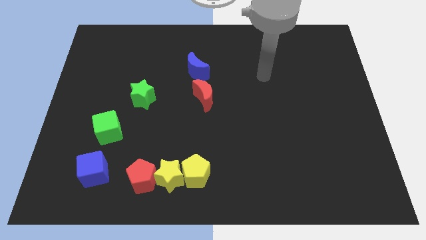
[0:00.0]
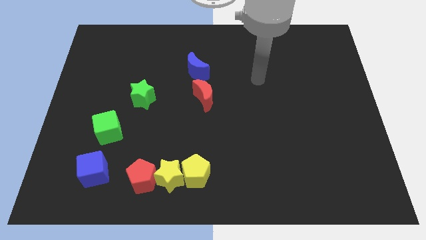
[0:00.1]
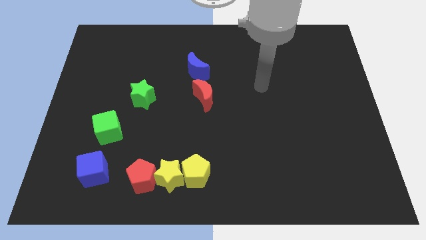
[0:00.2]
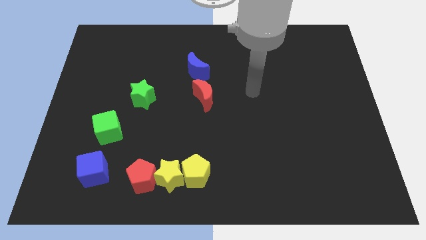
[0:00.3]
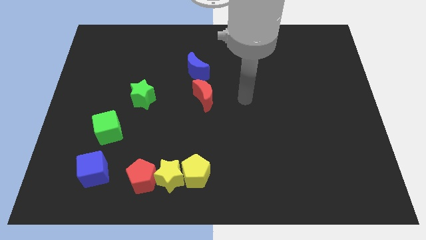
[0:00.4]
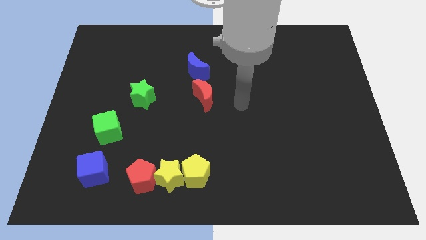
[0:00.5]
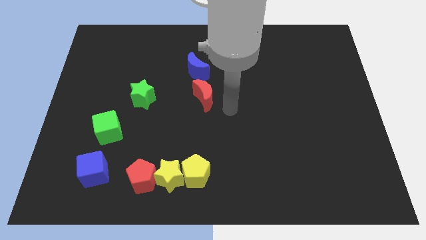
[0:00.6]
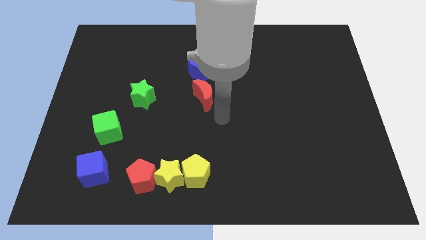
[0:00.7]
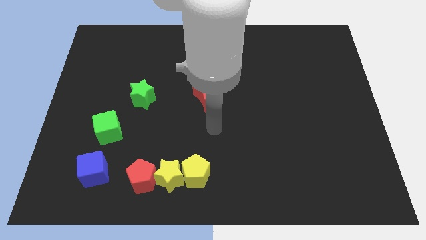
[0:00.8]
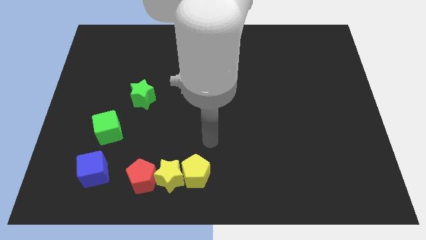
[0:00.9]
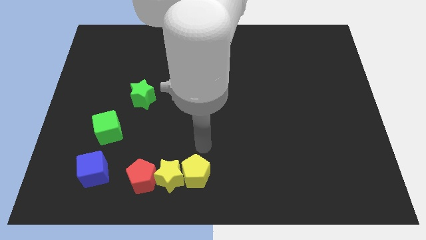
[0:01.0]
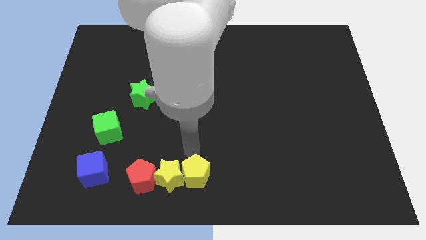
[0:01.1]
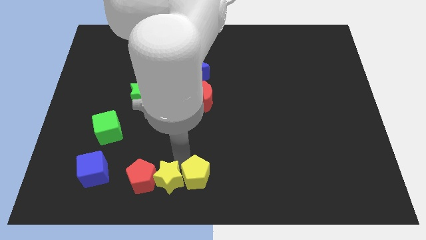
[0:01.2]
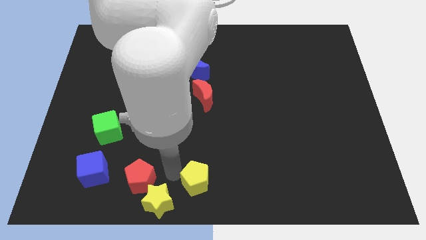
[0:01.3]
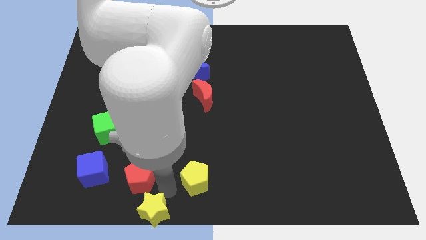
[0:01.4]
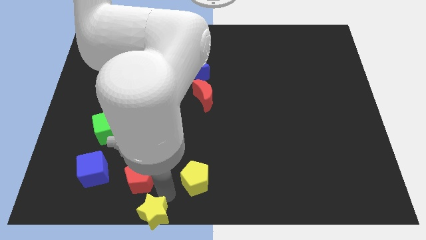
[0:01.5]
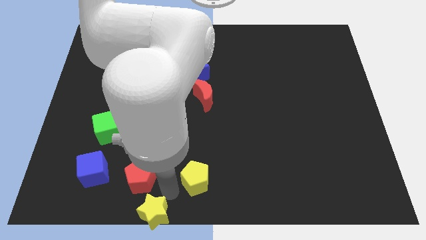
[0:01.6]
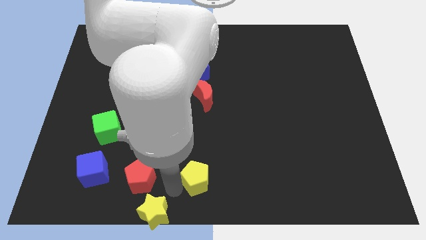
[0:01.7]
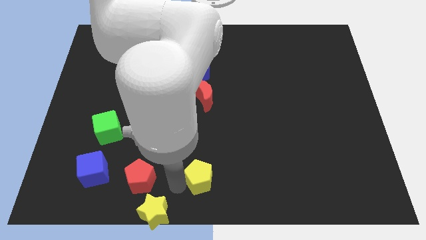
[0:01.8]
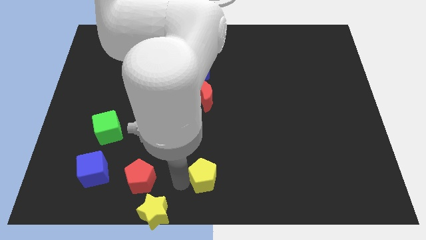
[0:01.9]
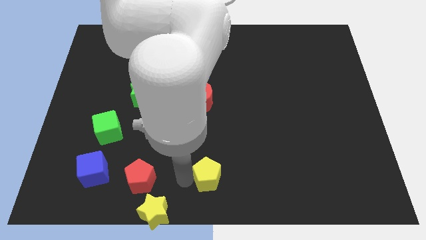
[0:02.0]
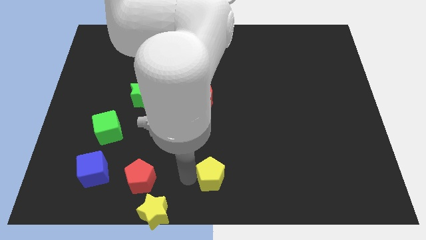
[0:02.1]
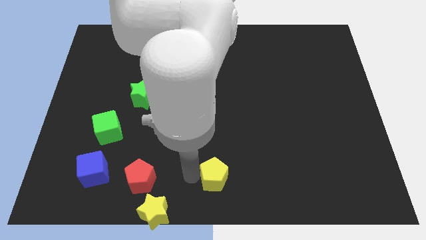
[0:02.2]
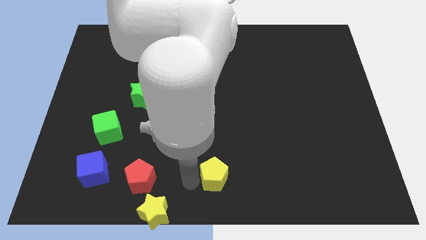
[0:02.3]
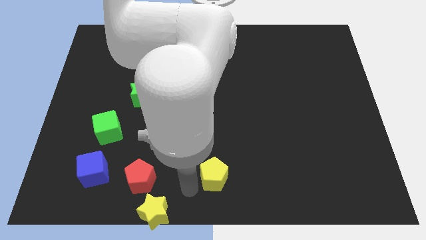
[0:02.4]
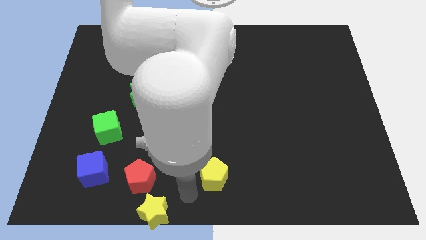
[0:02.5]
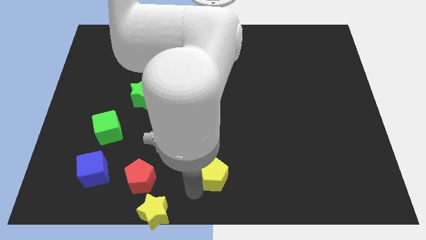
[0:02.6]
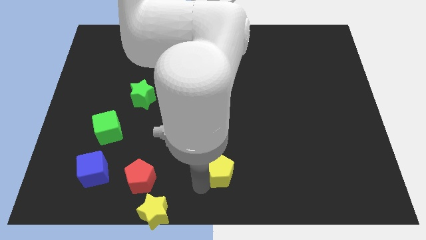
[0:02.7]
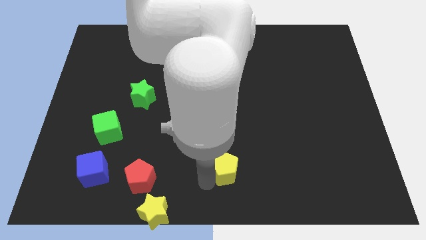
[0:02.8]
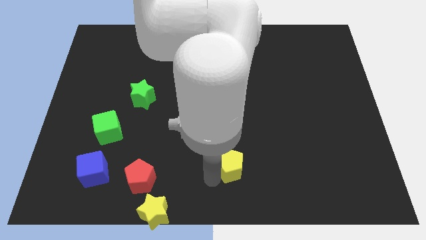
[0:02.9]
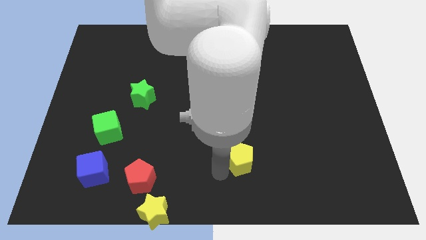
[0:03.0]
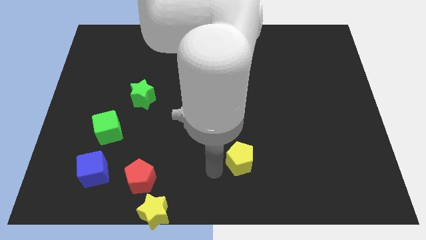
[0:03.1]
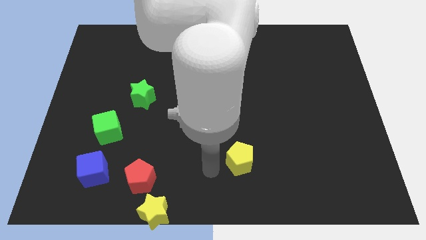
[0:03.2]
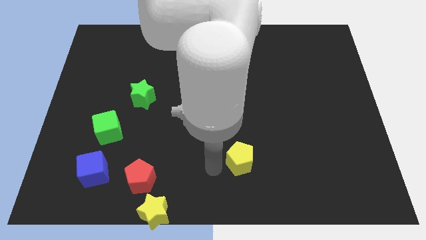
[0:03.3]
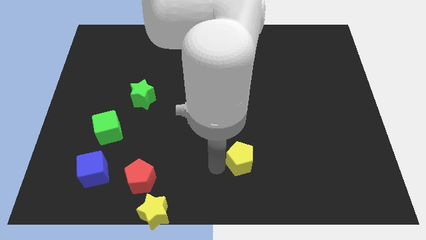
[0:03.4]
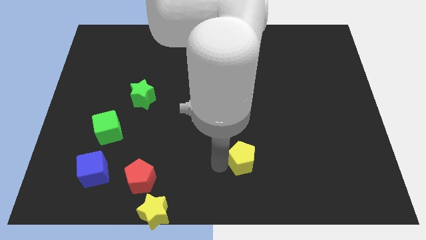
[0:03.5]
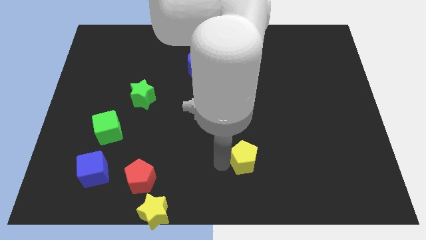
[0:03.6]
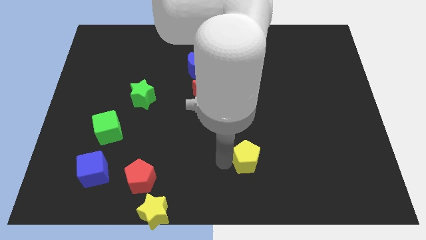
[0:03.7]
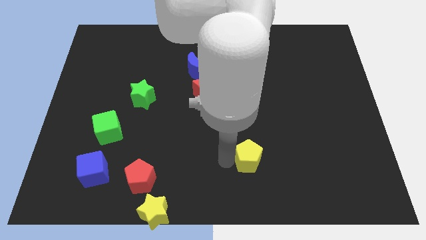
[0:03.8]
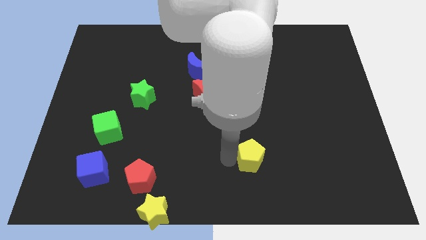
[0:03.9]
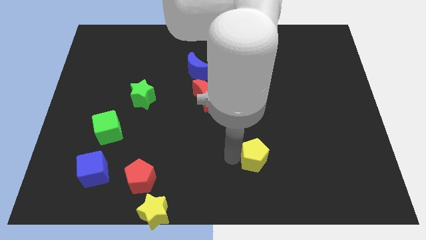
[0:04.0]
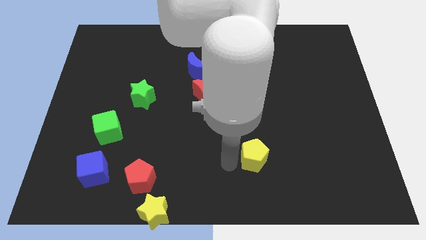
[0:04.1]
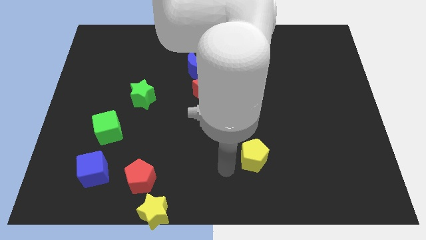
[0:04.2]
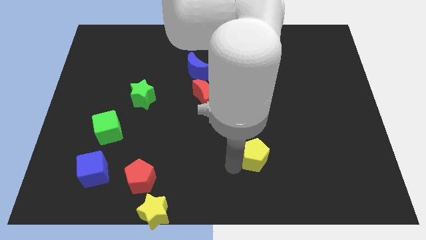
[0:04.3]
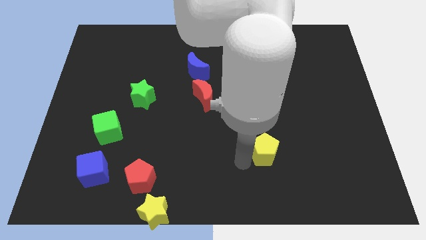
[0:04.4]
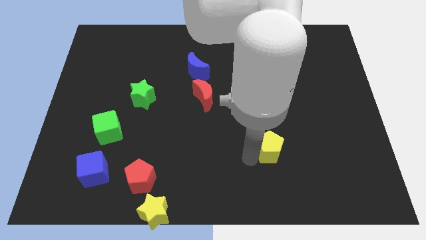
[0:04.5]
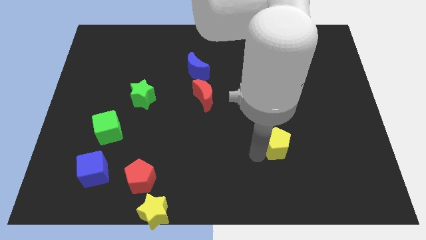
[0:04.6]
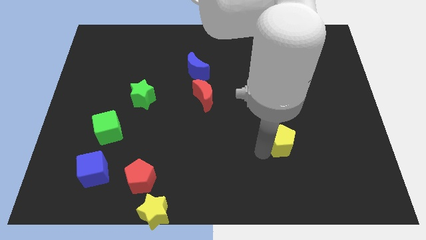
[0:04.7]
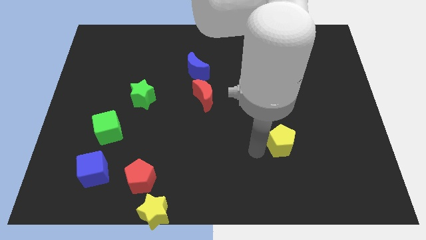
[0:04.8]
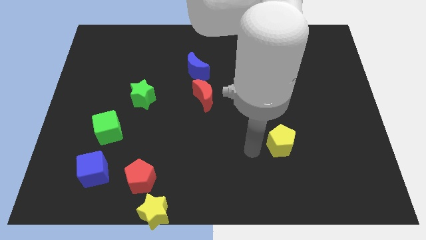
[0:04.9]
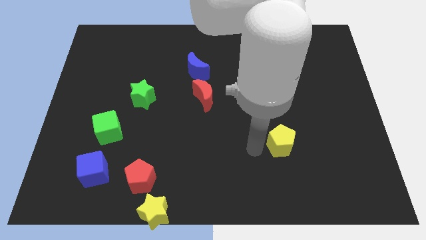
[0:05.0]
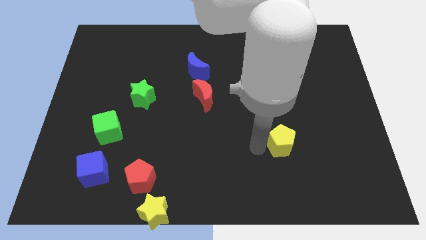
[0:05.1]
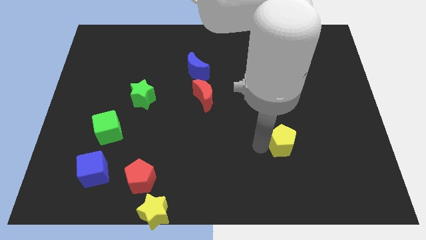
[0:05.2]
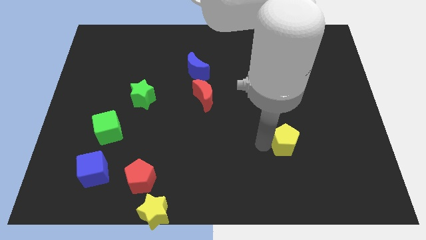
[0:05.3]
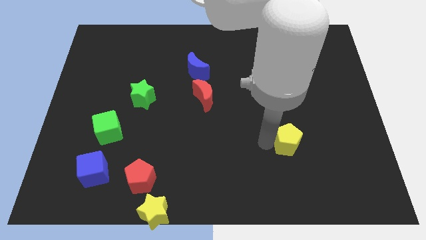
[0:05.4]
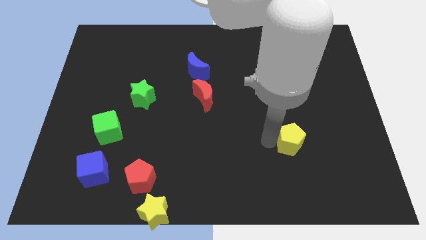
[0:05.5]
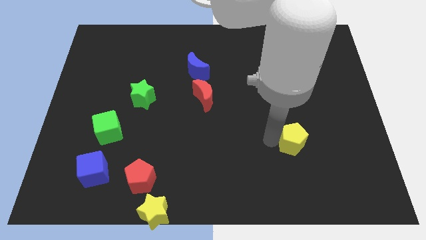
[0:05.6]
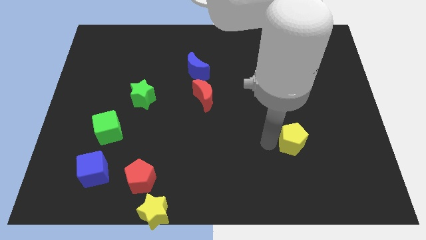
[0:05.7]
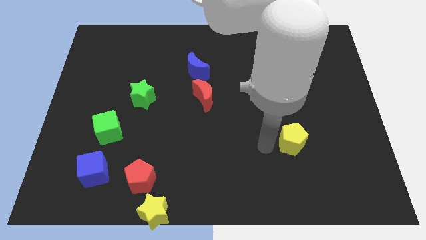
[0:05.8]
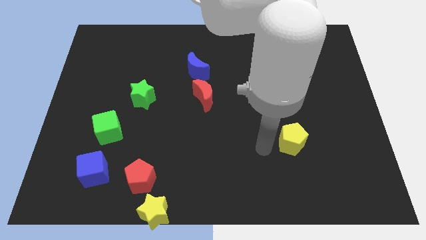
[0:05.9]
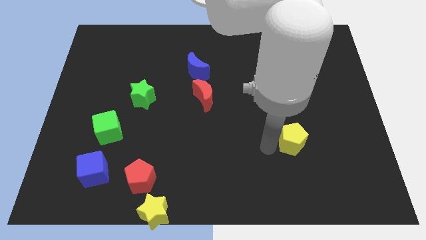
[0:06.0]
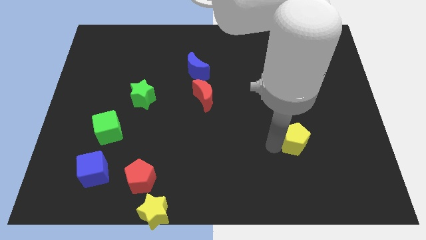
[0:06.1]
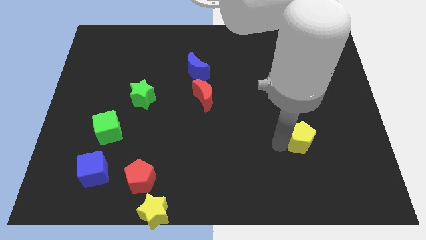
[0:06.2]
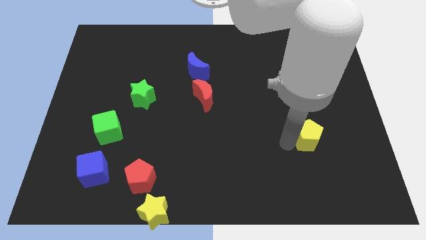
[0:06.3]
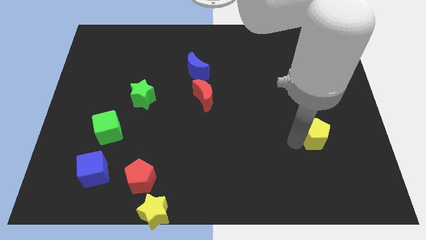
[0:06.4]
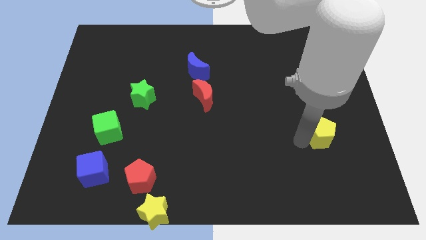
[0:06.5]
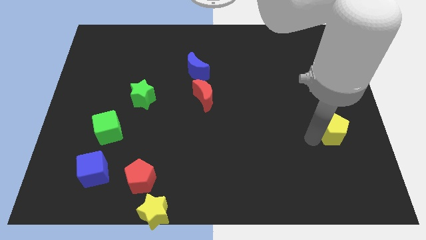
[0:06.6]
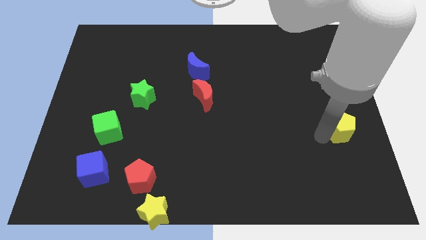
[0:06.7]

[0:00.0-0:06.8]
move the yellow pentagon to the center right
